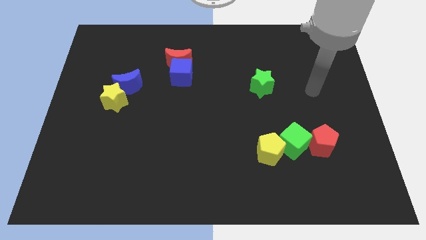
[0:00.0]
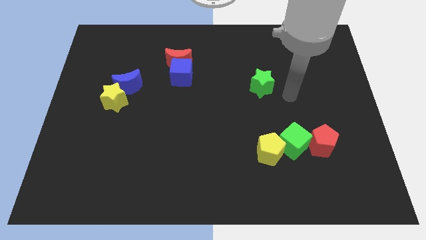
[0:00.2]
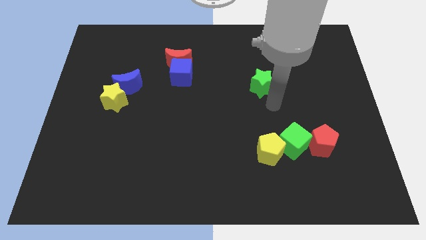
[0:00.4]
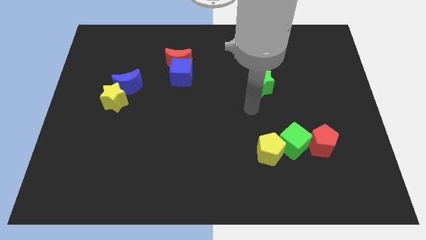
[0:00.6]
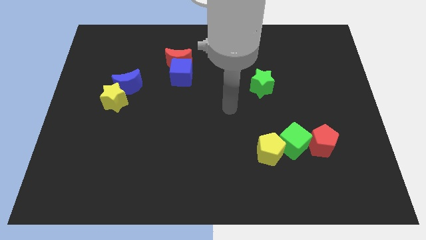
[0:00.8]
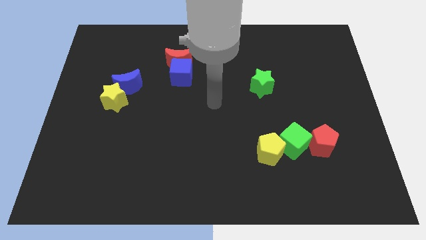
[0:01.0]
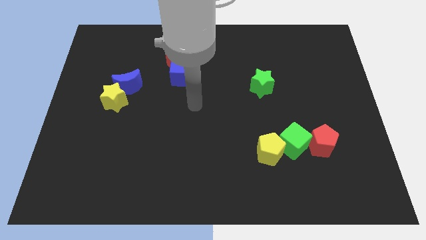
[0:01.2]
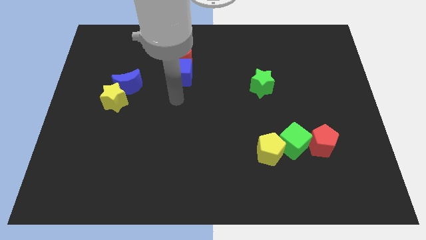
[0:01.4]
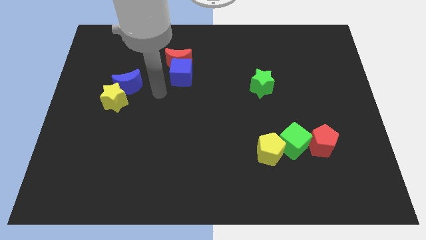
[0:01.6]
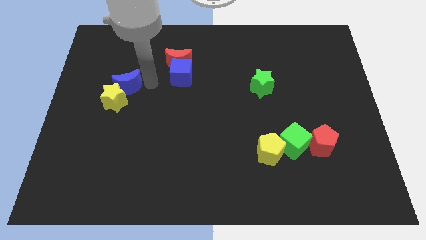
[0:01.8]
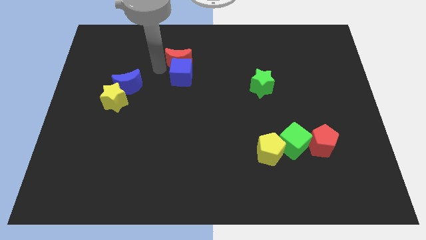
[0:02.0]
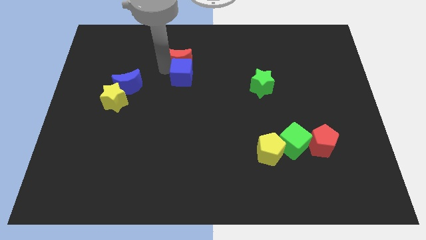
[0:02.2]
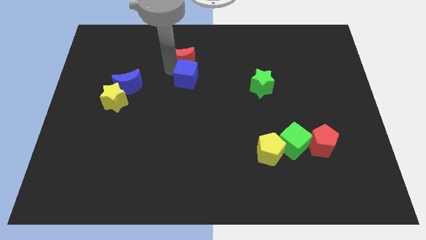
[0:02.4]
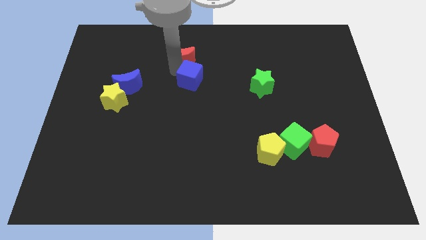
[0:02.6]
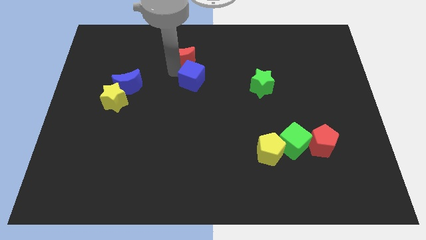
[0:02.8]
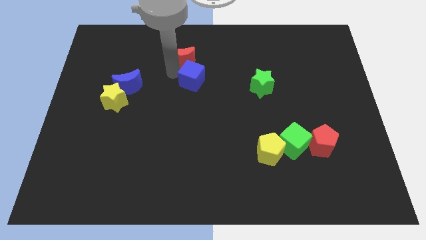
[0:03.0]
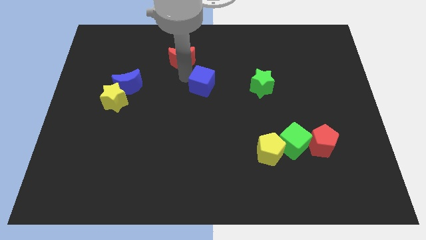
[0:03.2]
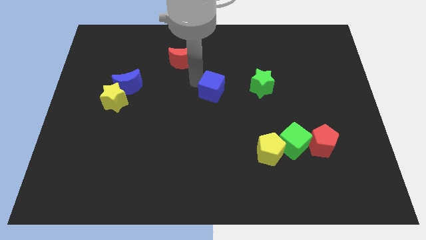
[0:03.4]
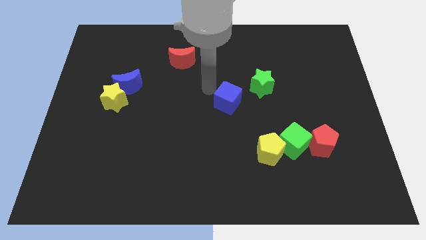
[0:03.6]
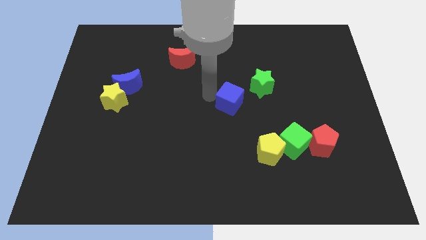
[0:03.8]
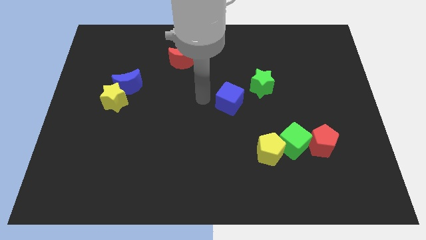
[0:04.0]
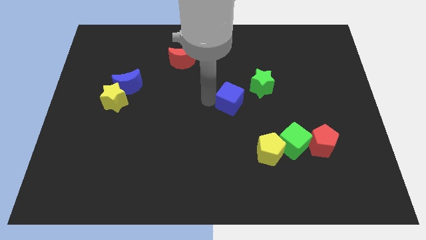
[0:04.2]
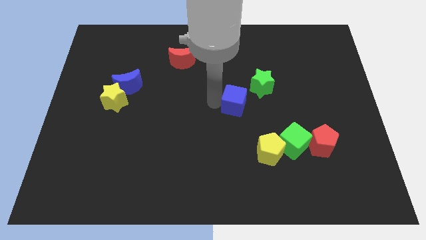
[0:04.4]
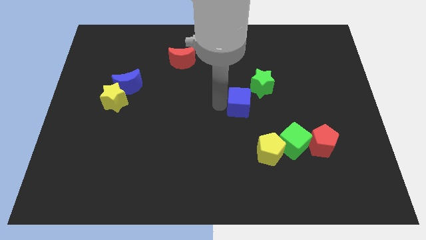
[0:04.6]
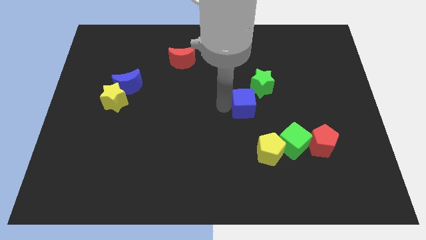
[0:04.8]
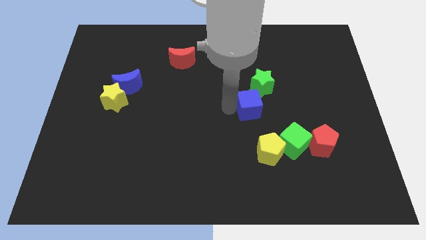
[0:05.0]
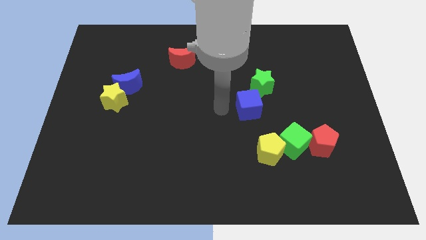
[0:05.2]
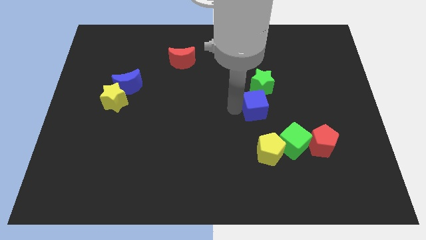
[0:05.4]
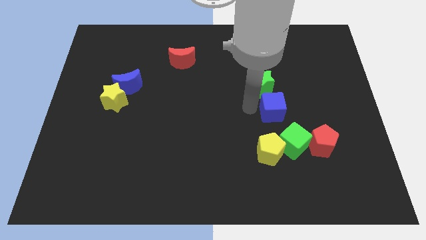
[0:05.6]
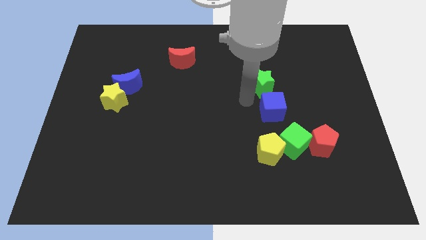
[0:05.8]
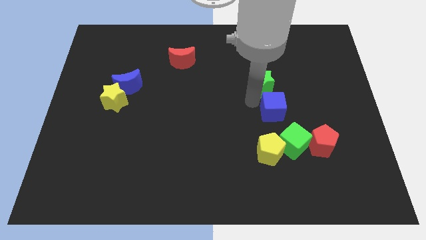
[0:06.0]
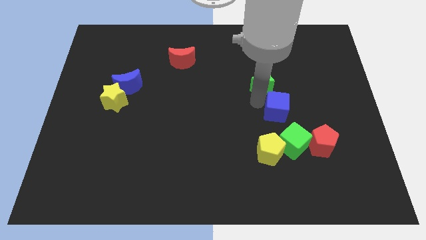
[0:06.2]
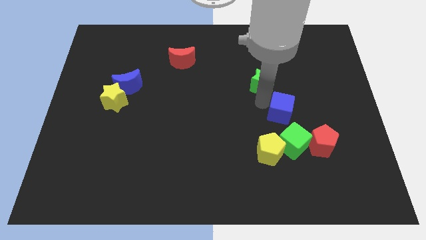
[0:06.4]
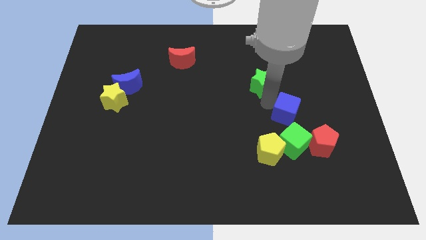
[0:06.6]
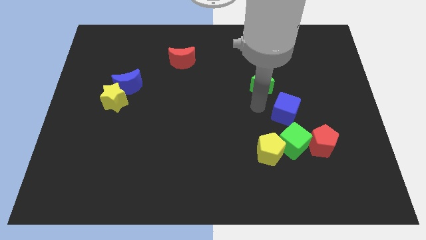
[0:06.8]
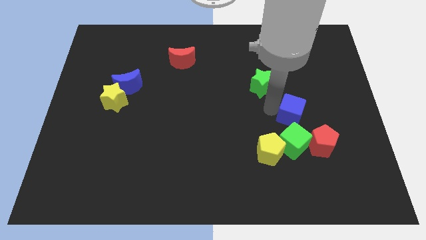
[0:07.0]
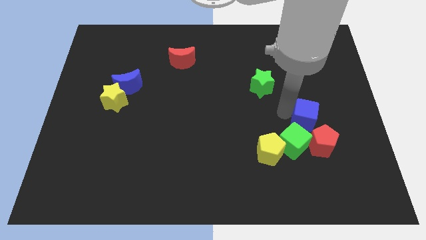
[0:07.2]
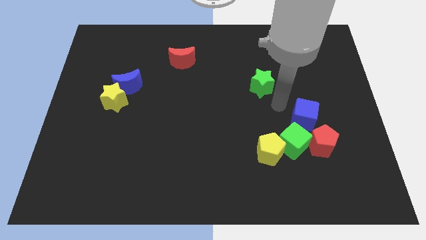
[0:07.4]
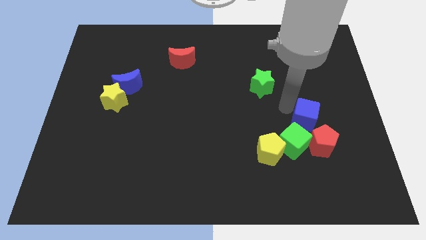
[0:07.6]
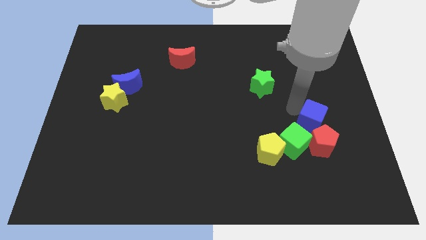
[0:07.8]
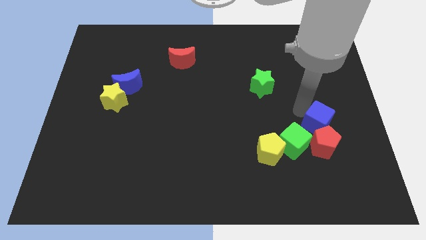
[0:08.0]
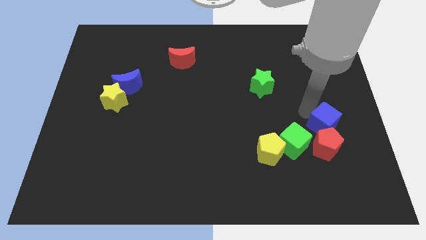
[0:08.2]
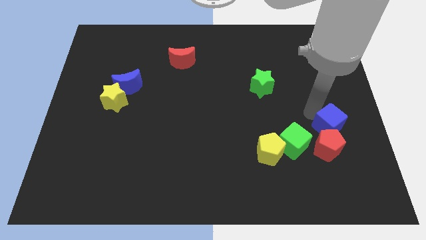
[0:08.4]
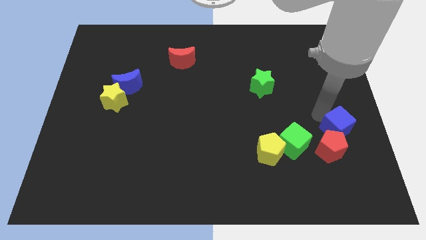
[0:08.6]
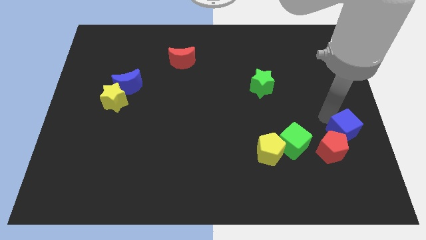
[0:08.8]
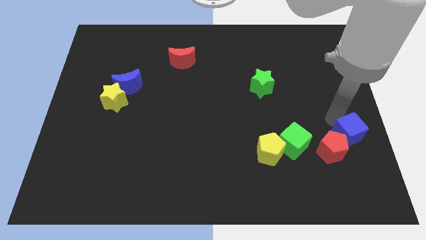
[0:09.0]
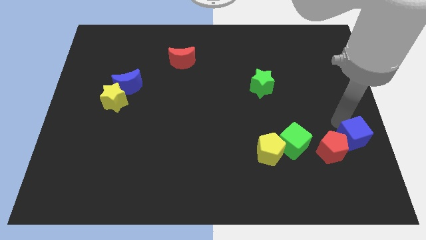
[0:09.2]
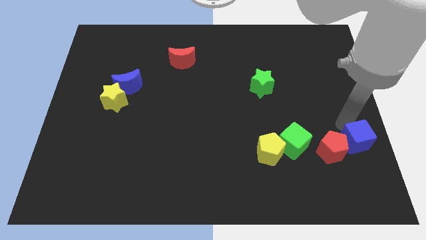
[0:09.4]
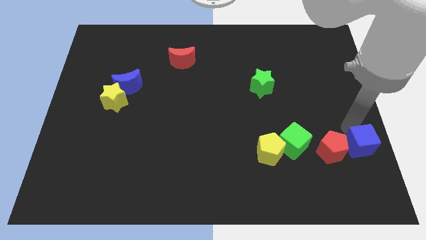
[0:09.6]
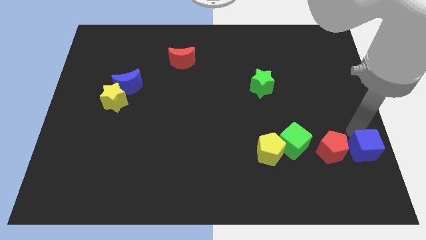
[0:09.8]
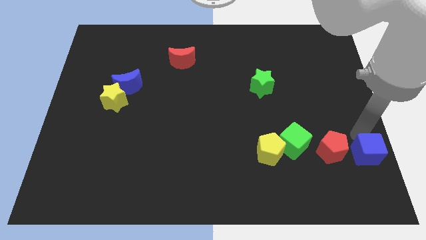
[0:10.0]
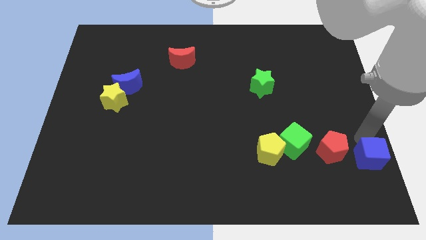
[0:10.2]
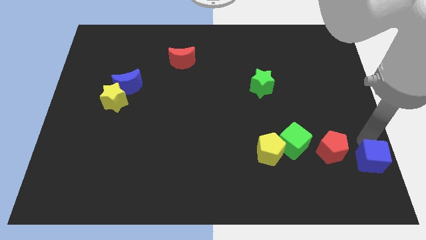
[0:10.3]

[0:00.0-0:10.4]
push the blue cube to the bottom right

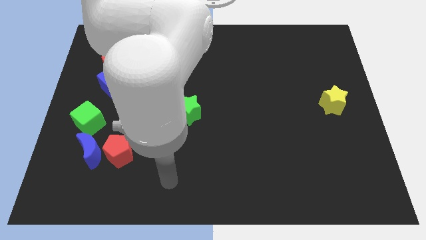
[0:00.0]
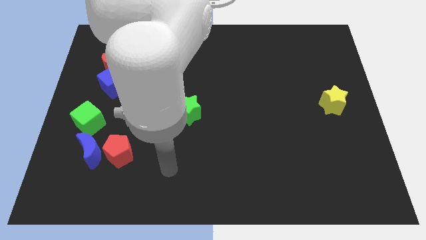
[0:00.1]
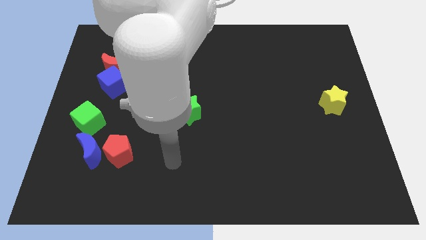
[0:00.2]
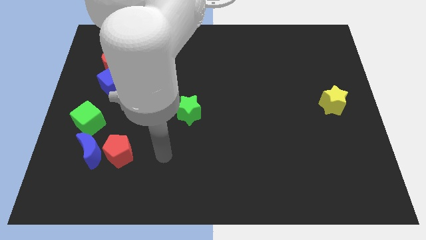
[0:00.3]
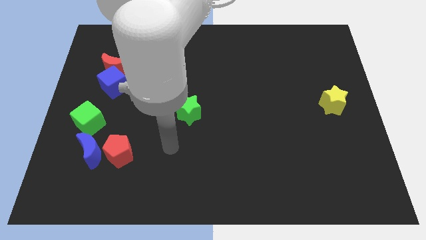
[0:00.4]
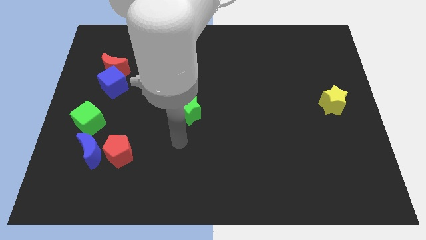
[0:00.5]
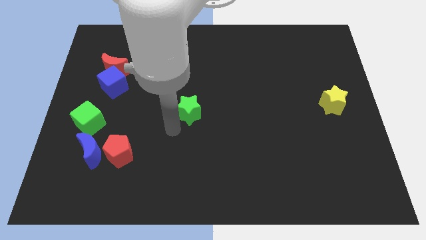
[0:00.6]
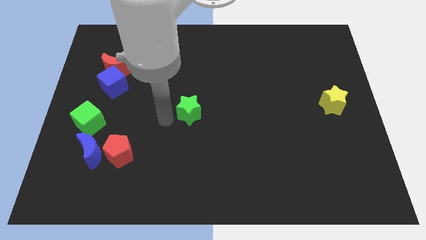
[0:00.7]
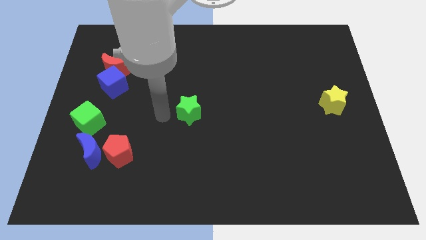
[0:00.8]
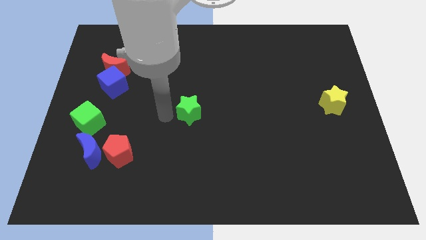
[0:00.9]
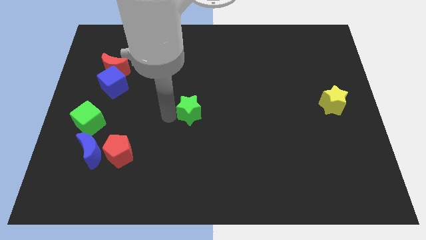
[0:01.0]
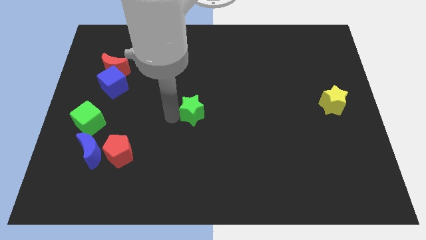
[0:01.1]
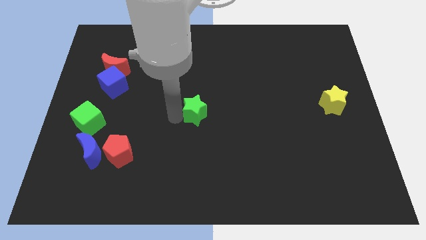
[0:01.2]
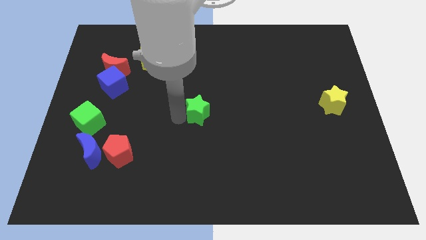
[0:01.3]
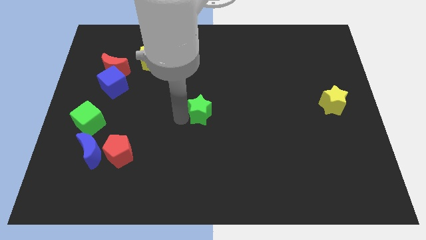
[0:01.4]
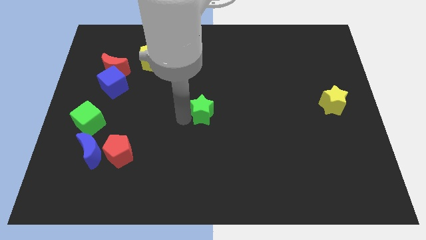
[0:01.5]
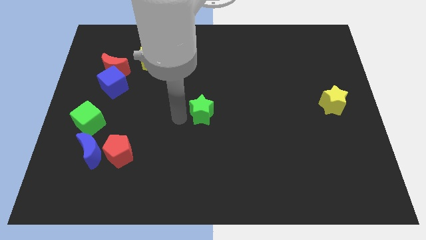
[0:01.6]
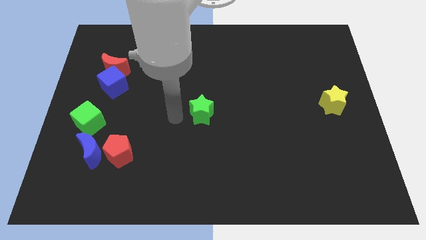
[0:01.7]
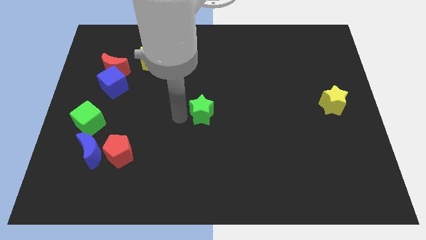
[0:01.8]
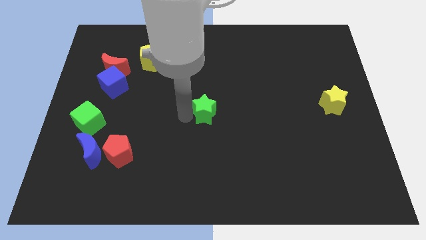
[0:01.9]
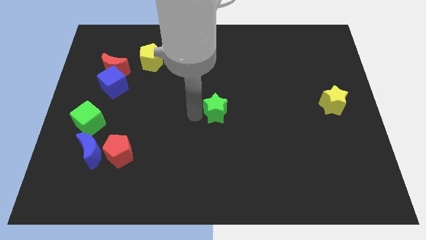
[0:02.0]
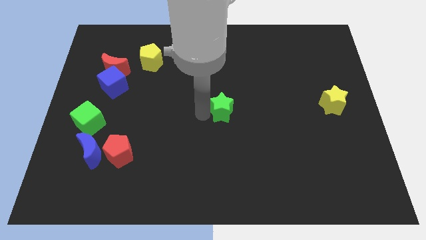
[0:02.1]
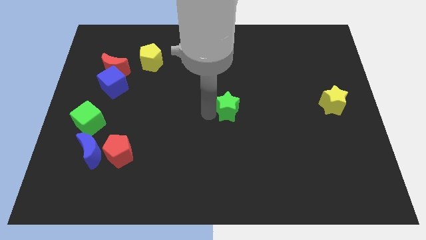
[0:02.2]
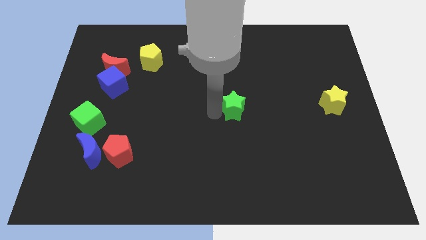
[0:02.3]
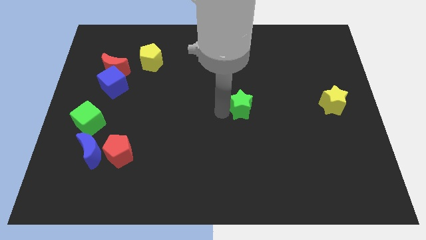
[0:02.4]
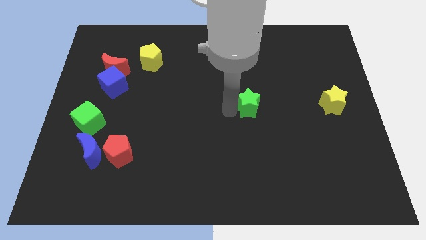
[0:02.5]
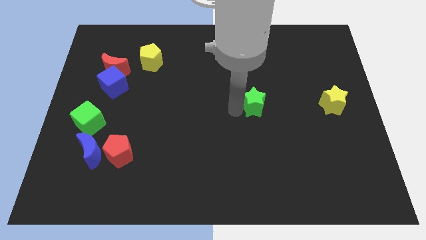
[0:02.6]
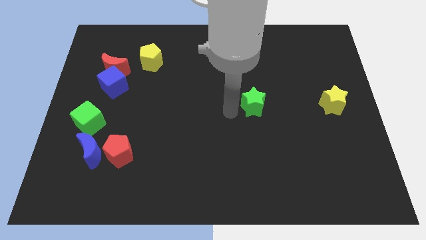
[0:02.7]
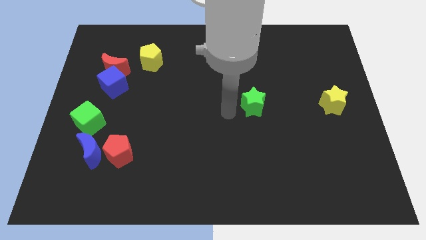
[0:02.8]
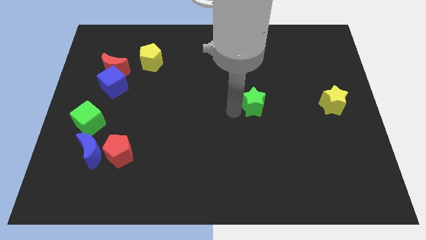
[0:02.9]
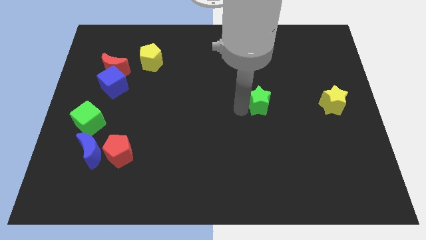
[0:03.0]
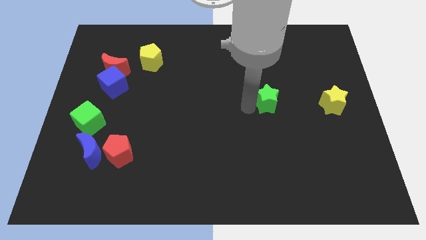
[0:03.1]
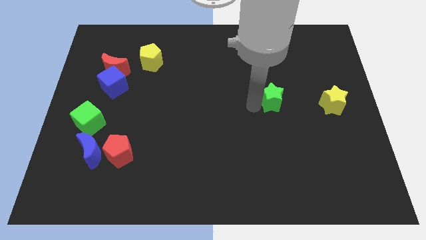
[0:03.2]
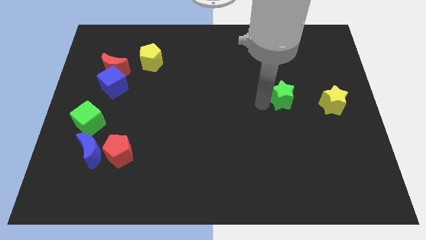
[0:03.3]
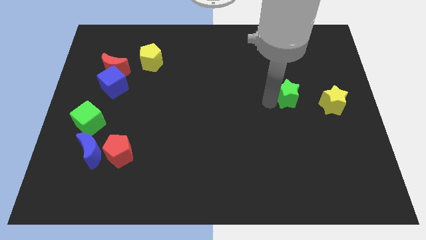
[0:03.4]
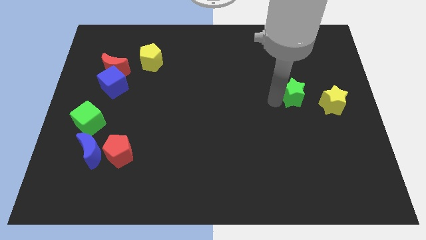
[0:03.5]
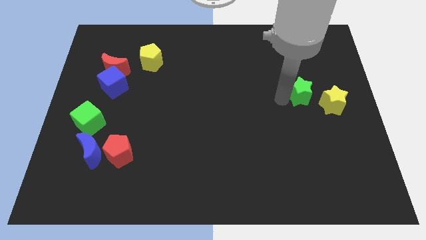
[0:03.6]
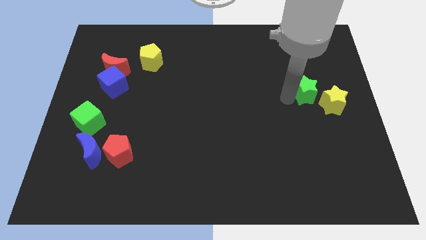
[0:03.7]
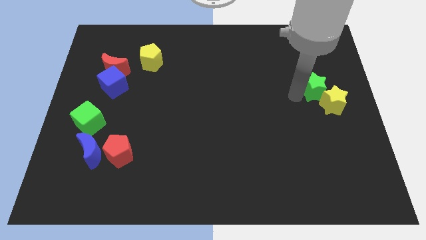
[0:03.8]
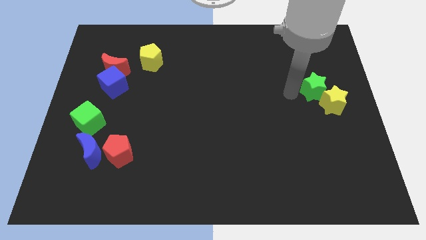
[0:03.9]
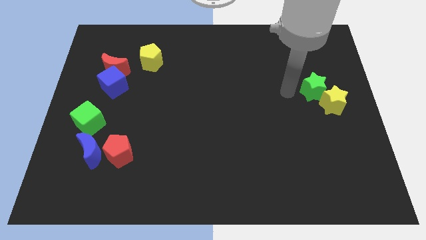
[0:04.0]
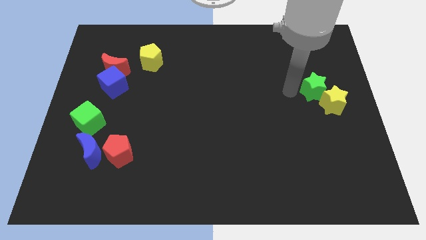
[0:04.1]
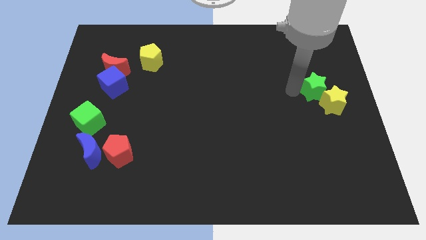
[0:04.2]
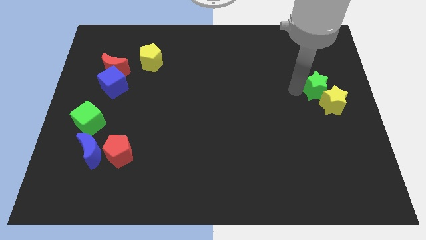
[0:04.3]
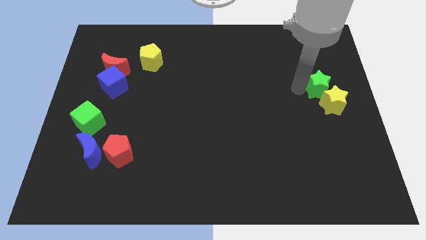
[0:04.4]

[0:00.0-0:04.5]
push the green star to the center right
